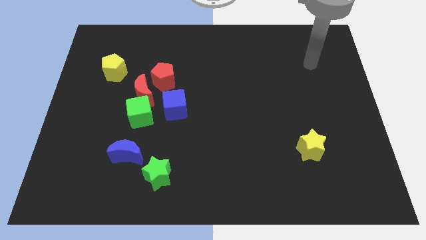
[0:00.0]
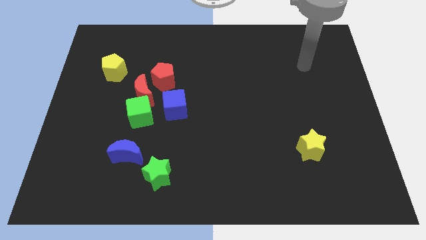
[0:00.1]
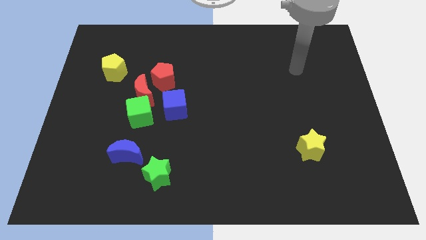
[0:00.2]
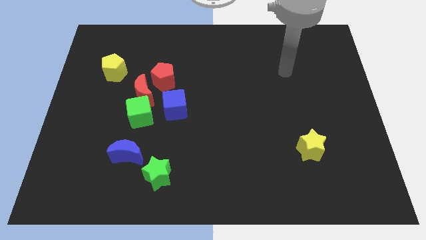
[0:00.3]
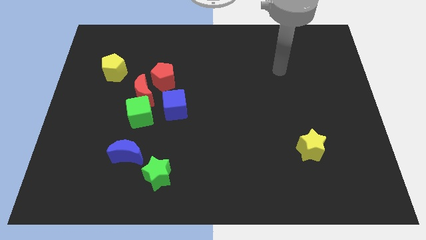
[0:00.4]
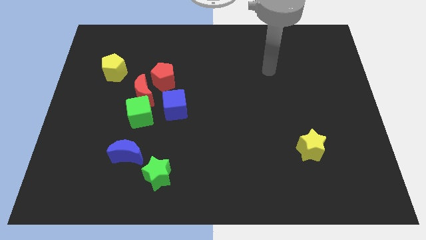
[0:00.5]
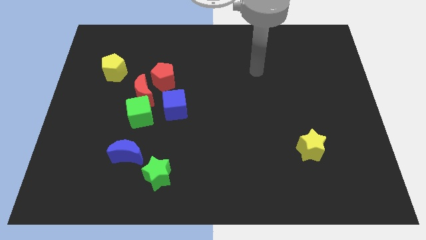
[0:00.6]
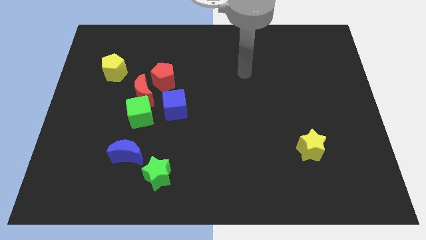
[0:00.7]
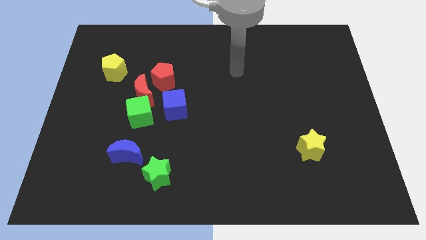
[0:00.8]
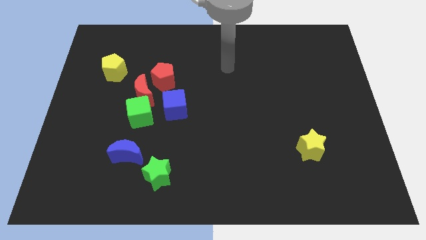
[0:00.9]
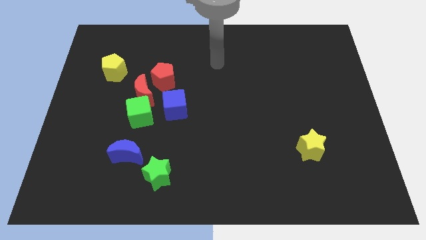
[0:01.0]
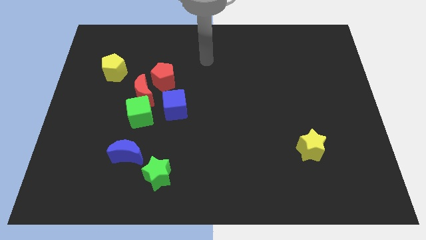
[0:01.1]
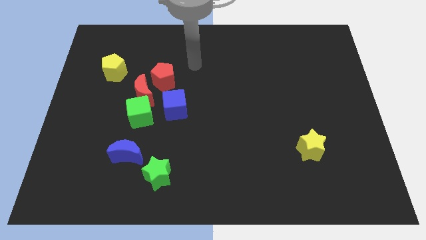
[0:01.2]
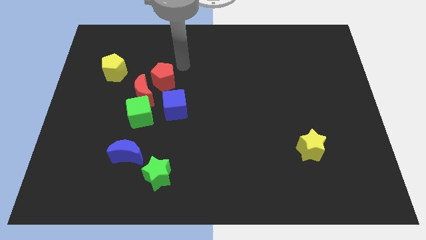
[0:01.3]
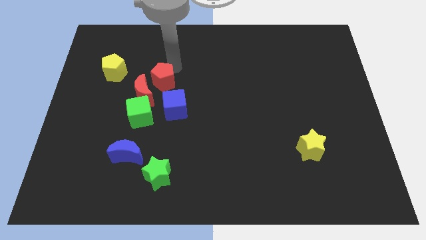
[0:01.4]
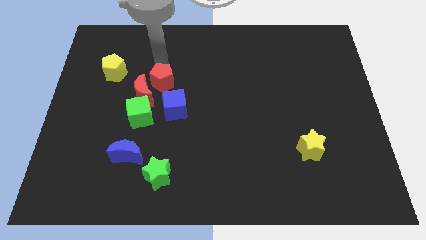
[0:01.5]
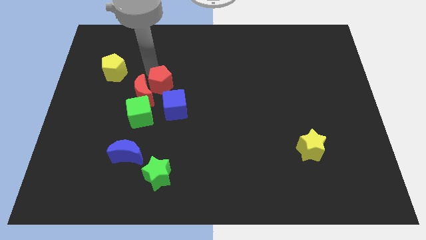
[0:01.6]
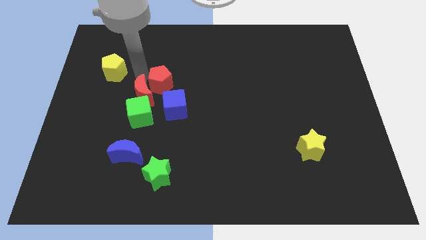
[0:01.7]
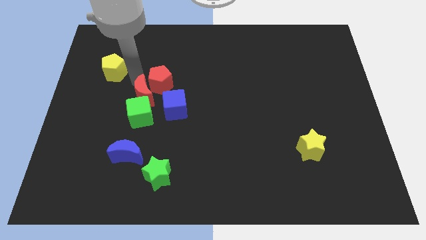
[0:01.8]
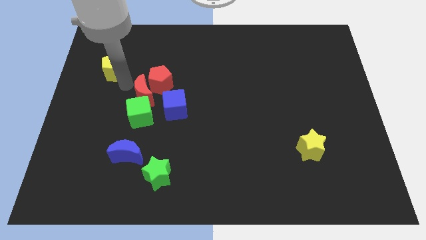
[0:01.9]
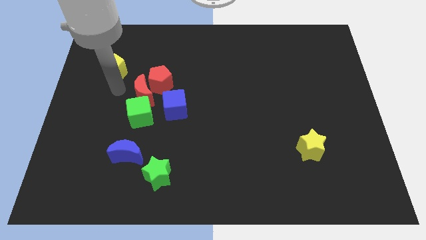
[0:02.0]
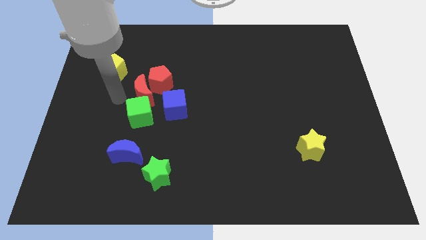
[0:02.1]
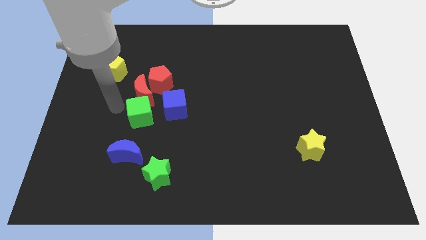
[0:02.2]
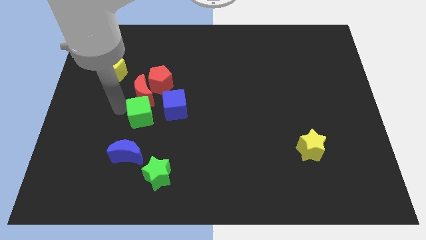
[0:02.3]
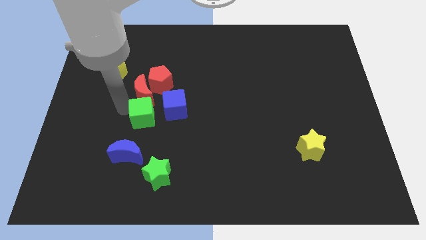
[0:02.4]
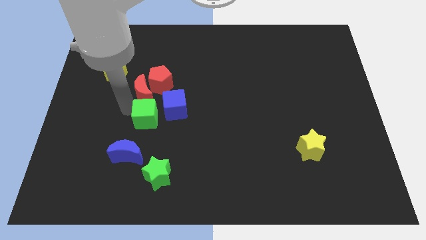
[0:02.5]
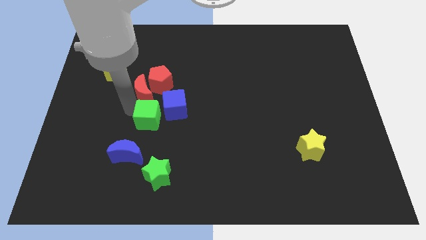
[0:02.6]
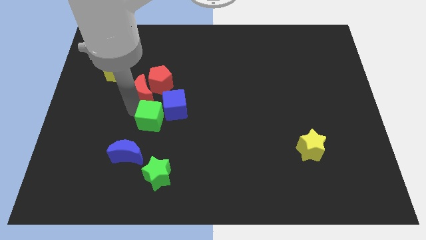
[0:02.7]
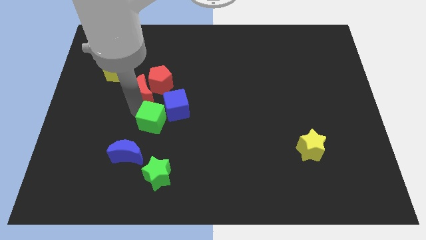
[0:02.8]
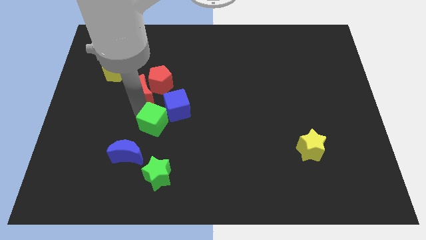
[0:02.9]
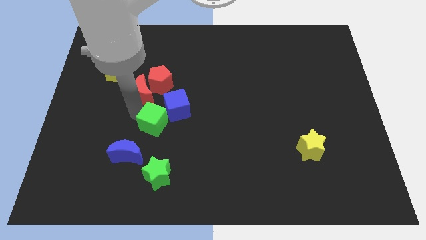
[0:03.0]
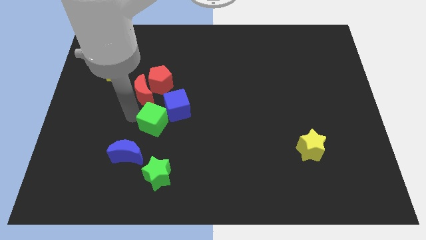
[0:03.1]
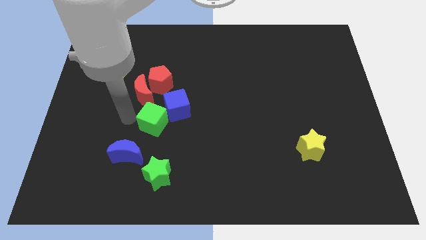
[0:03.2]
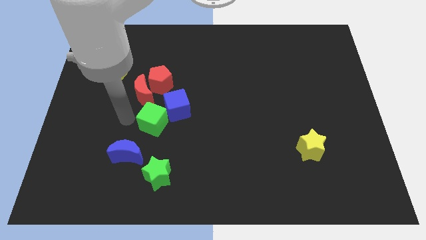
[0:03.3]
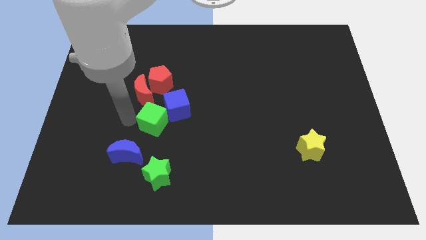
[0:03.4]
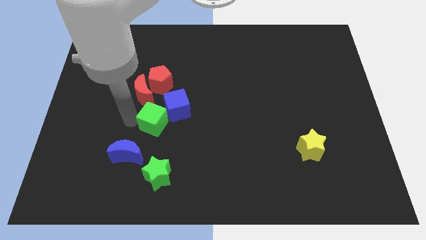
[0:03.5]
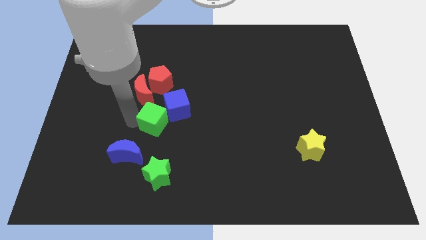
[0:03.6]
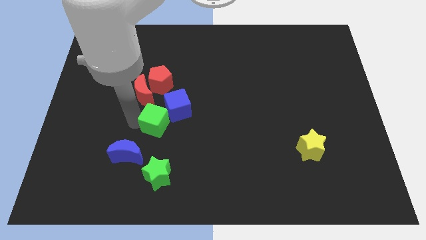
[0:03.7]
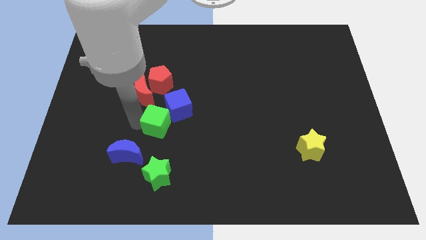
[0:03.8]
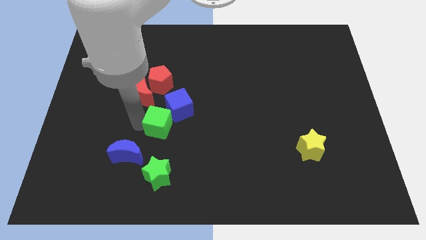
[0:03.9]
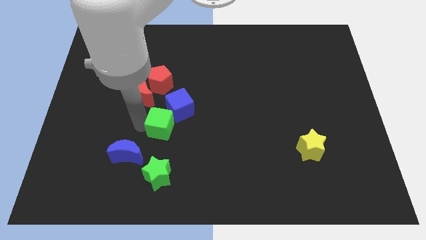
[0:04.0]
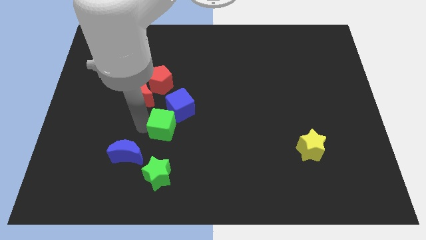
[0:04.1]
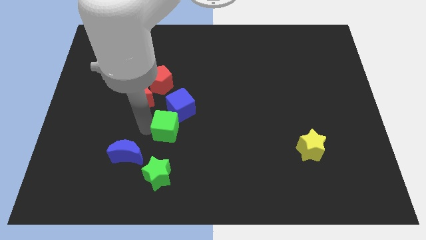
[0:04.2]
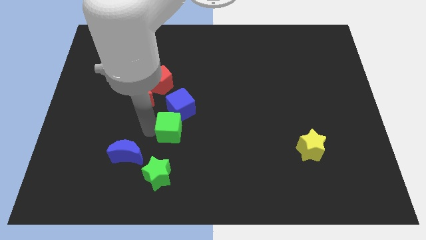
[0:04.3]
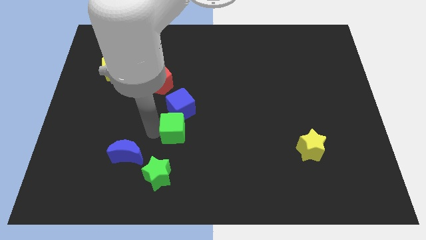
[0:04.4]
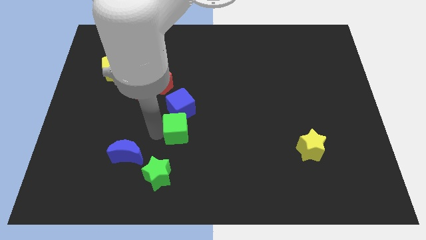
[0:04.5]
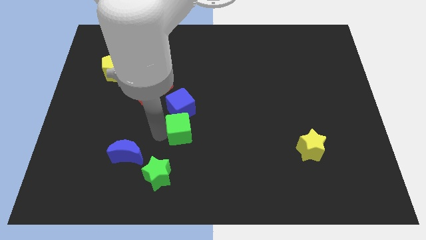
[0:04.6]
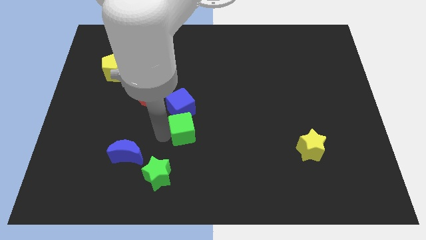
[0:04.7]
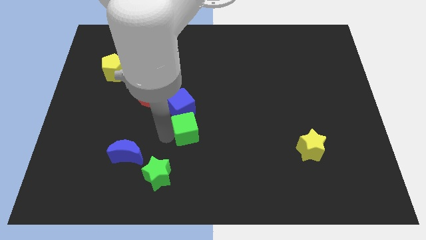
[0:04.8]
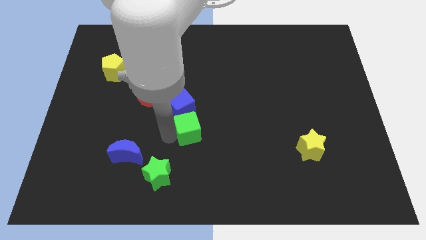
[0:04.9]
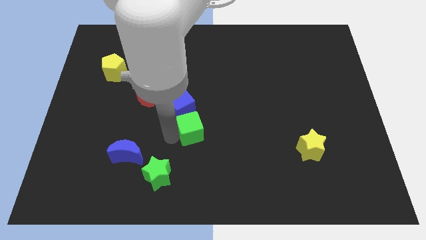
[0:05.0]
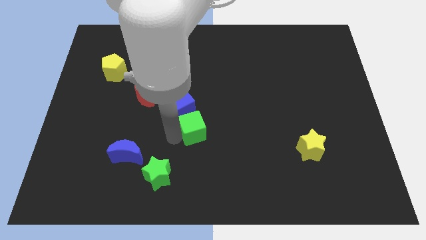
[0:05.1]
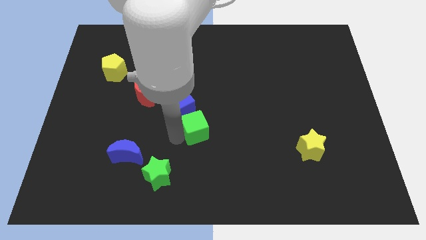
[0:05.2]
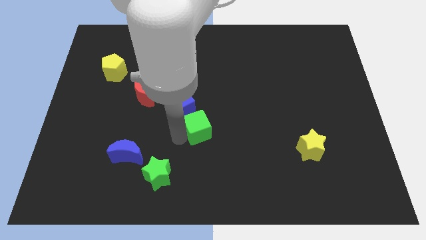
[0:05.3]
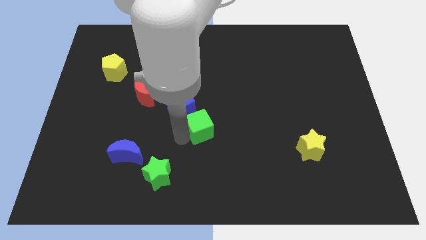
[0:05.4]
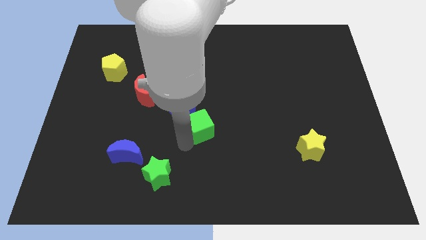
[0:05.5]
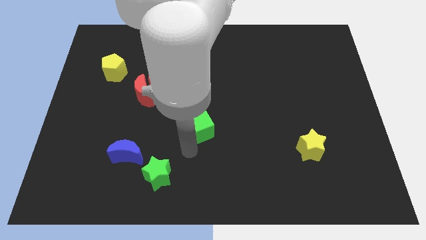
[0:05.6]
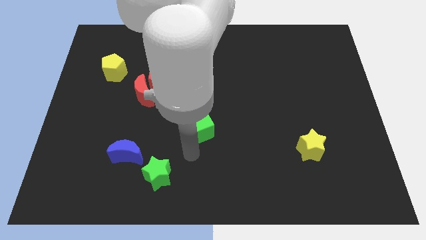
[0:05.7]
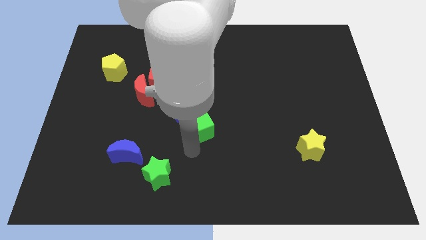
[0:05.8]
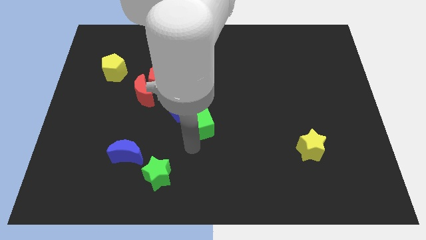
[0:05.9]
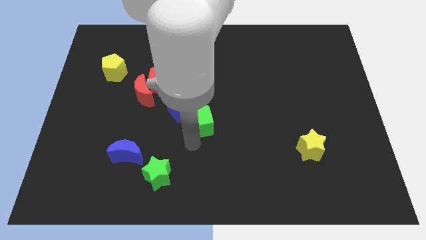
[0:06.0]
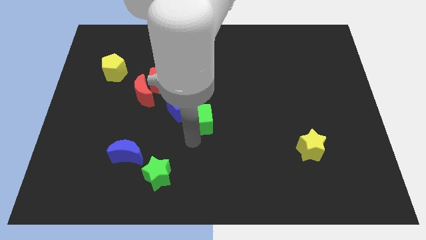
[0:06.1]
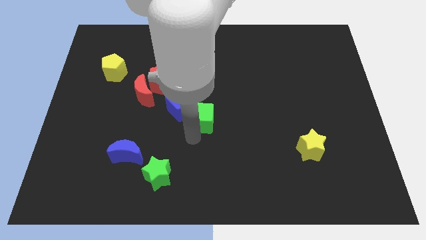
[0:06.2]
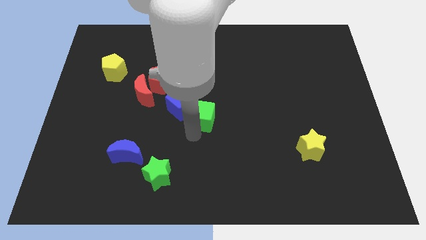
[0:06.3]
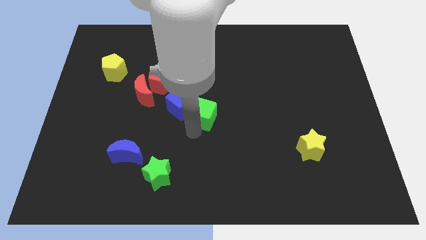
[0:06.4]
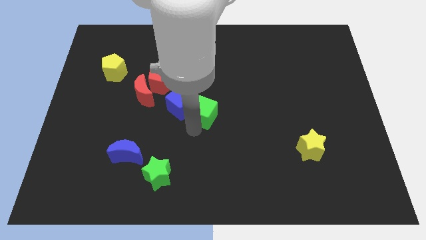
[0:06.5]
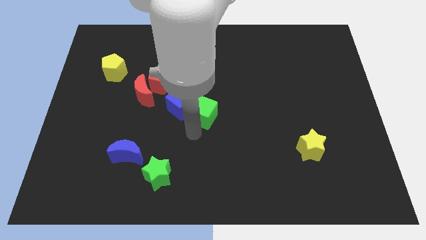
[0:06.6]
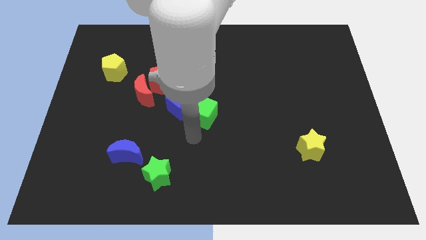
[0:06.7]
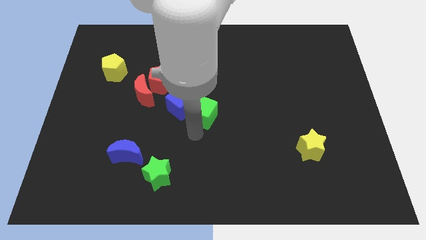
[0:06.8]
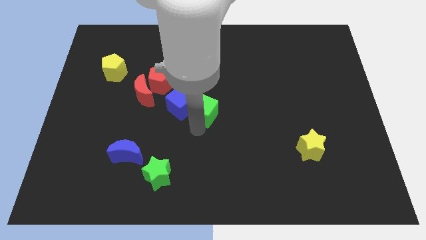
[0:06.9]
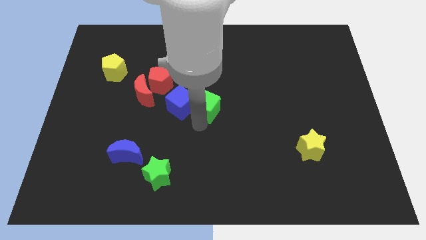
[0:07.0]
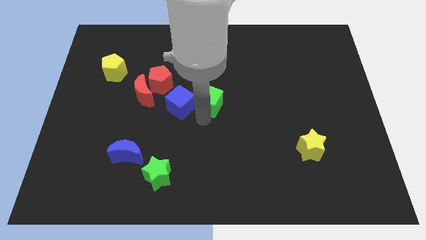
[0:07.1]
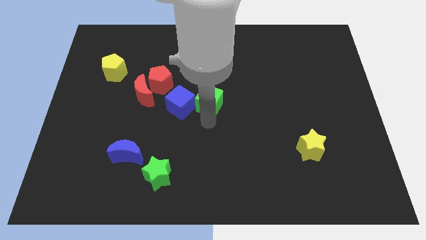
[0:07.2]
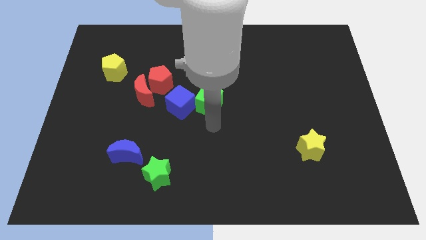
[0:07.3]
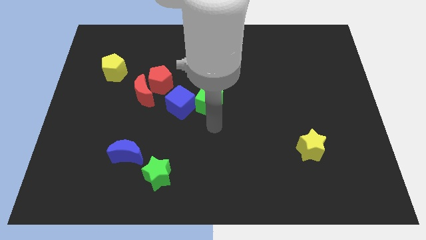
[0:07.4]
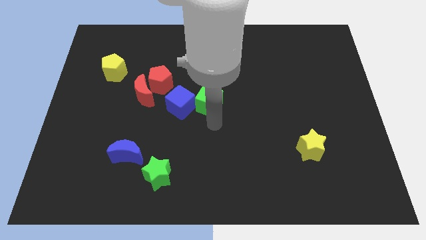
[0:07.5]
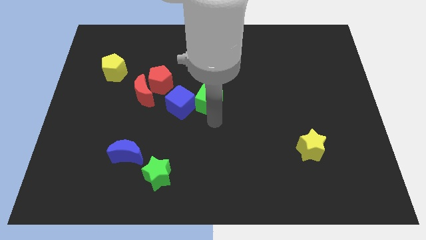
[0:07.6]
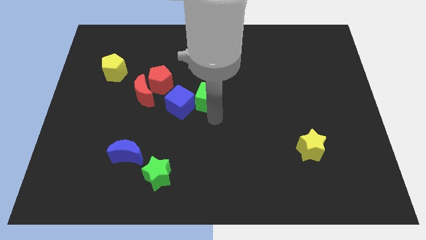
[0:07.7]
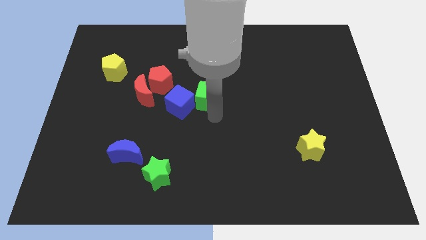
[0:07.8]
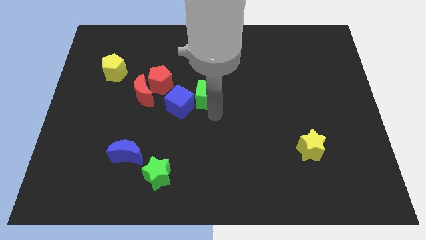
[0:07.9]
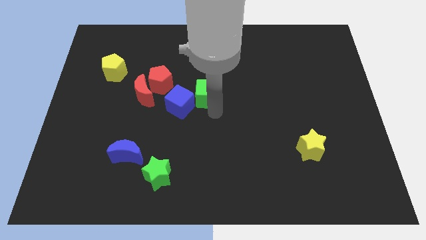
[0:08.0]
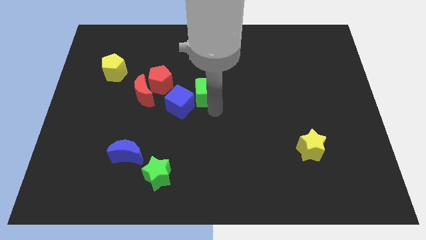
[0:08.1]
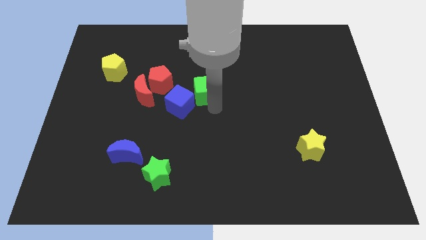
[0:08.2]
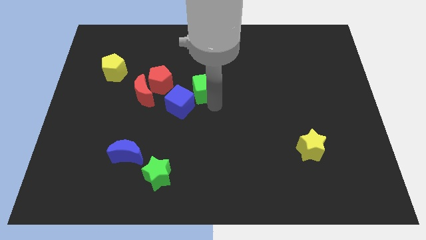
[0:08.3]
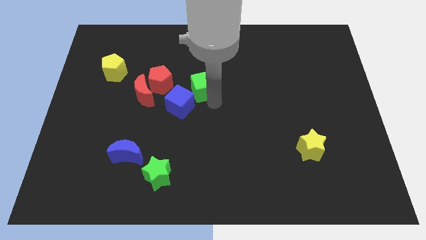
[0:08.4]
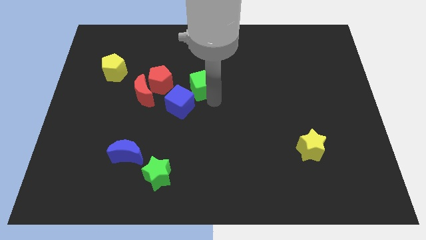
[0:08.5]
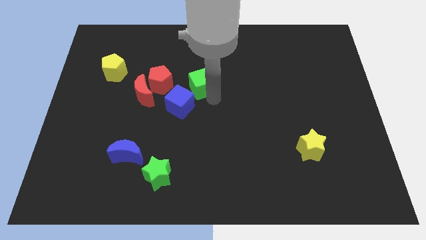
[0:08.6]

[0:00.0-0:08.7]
move the green cube above the blue cube
